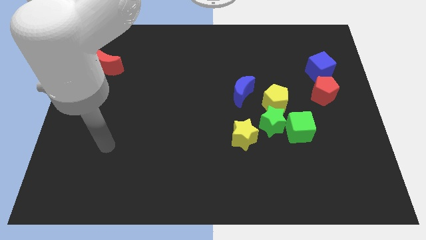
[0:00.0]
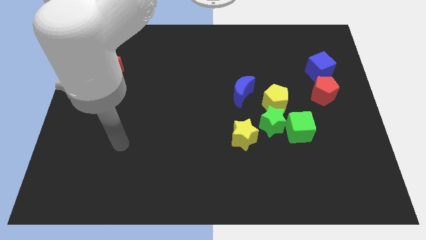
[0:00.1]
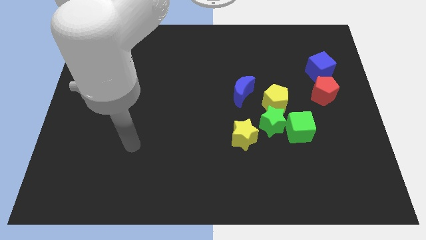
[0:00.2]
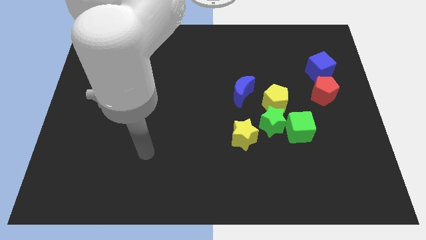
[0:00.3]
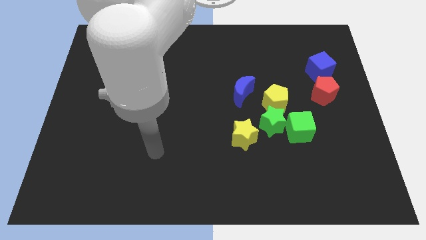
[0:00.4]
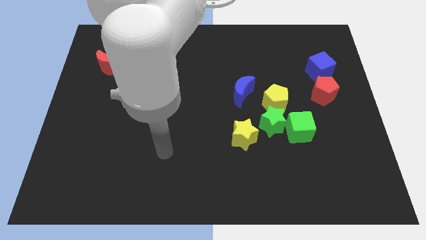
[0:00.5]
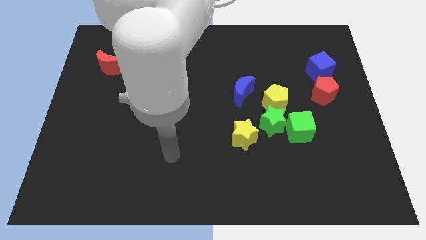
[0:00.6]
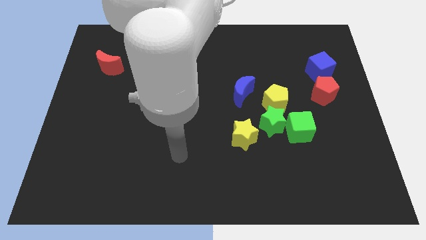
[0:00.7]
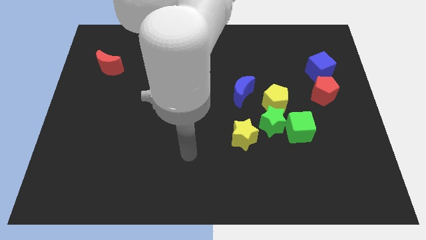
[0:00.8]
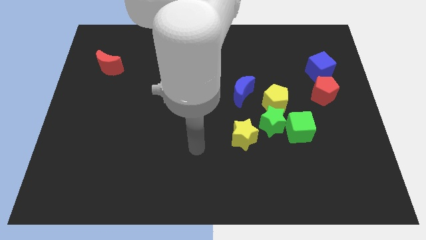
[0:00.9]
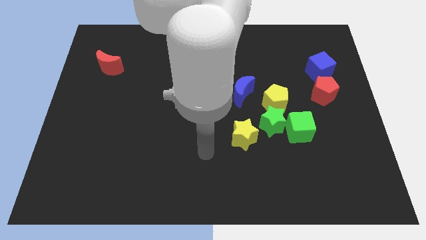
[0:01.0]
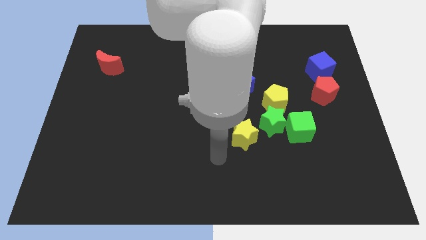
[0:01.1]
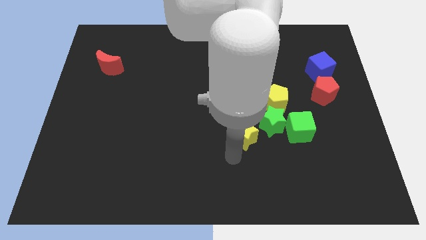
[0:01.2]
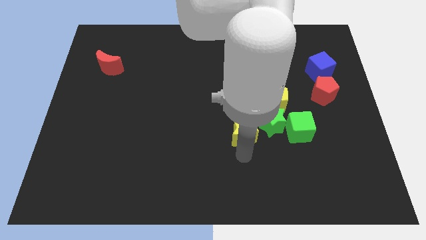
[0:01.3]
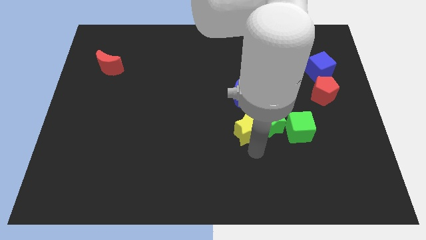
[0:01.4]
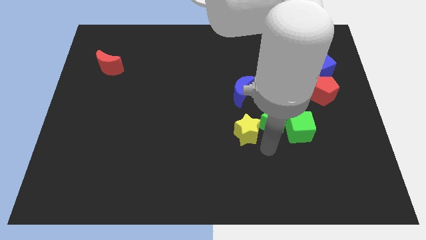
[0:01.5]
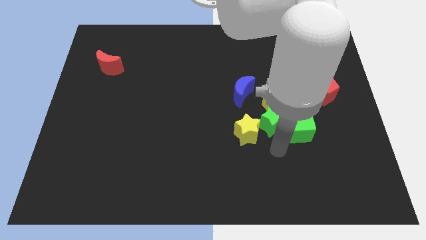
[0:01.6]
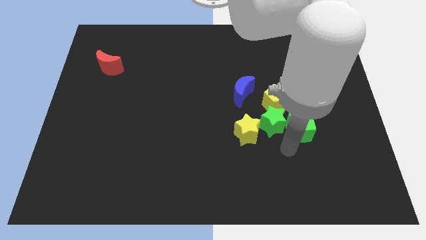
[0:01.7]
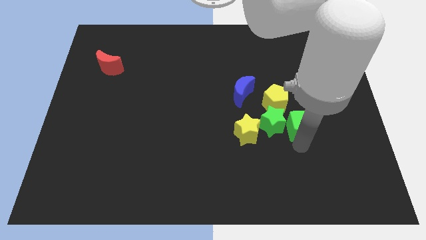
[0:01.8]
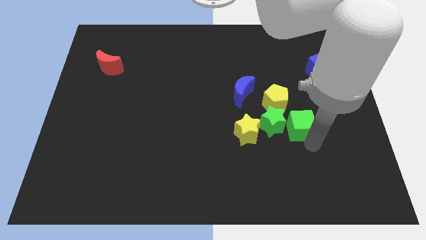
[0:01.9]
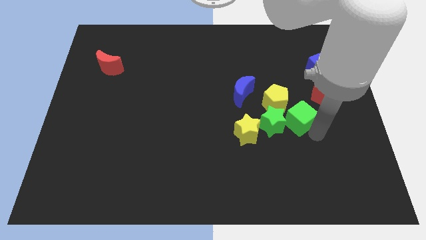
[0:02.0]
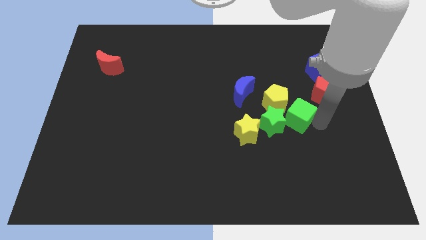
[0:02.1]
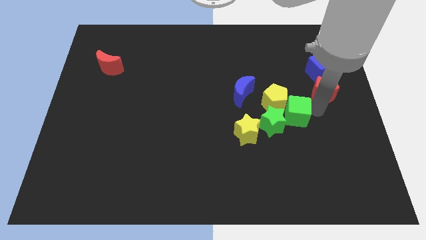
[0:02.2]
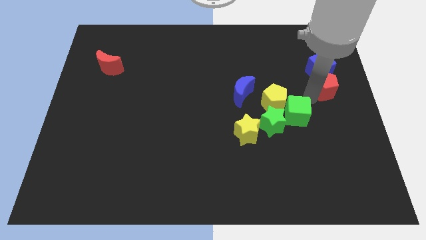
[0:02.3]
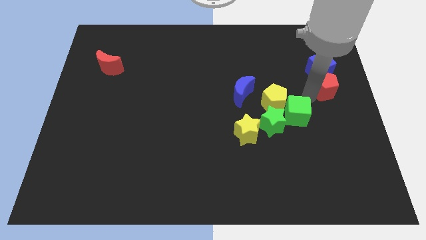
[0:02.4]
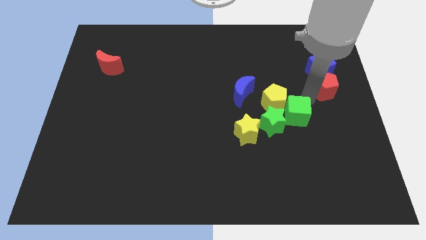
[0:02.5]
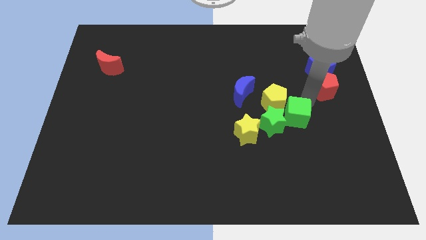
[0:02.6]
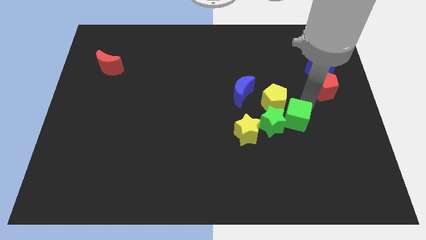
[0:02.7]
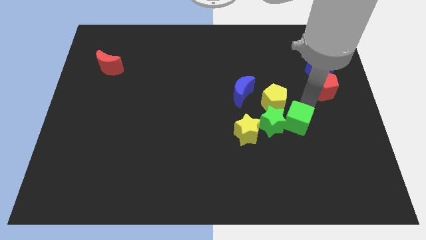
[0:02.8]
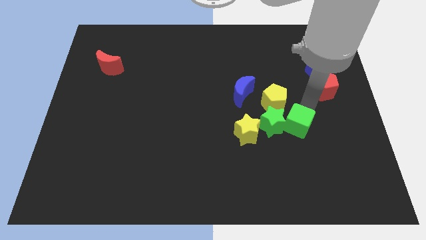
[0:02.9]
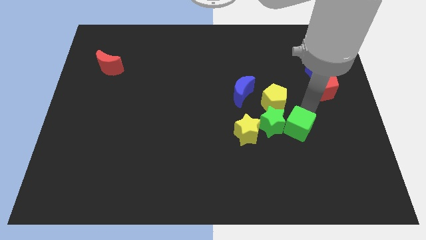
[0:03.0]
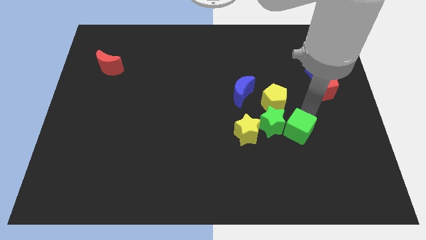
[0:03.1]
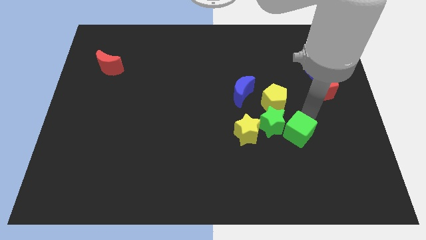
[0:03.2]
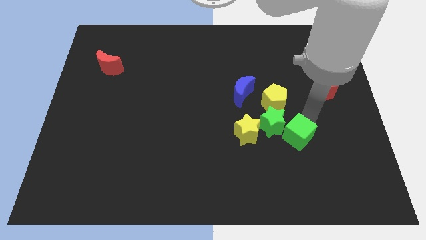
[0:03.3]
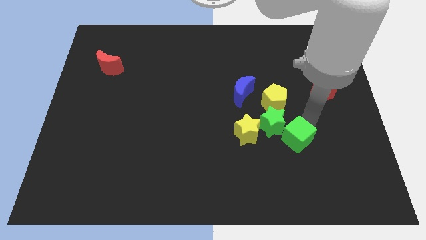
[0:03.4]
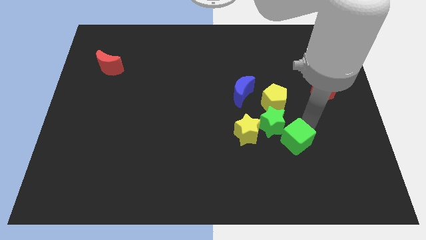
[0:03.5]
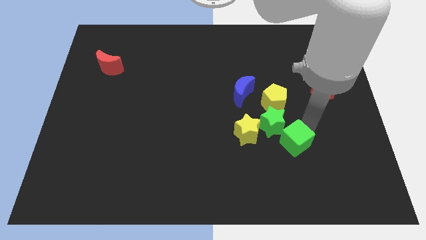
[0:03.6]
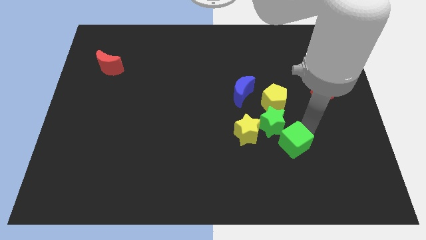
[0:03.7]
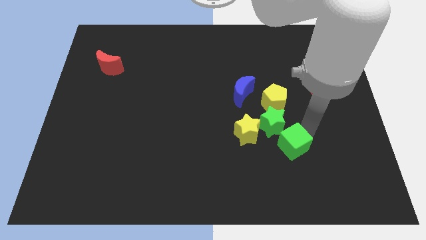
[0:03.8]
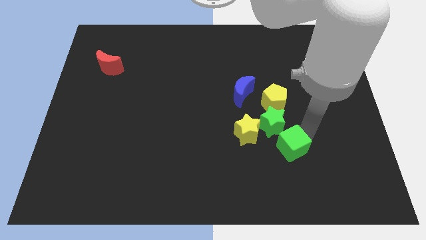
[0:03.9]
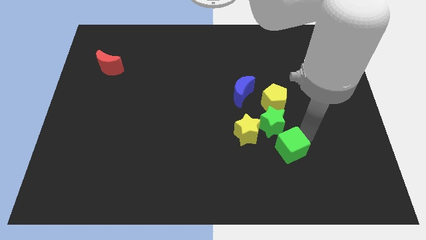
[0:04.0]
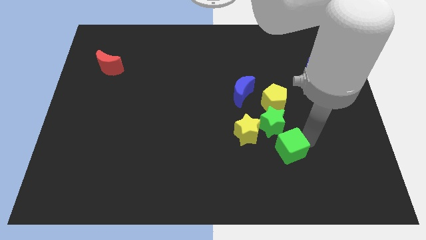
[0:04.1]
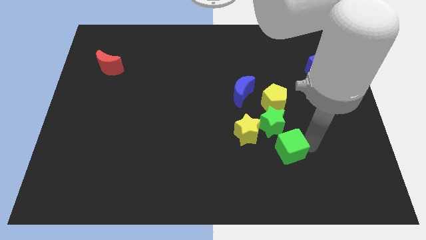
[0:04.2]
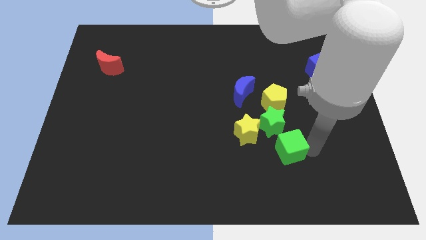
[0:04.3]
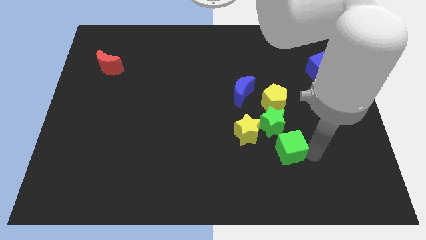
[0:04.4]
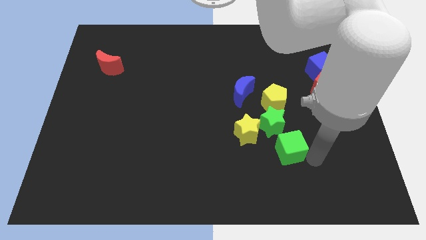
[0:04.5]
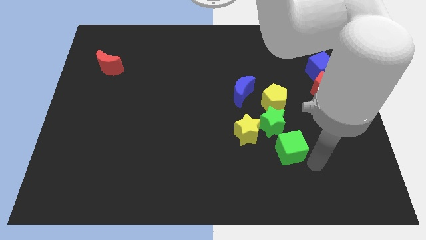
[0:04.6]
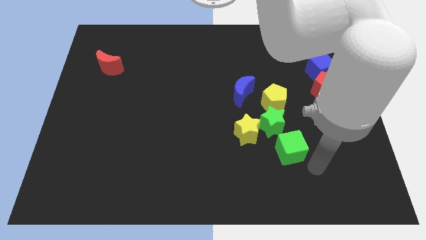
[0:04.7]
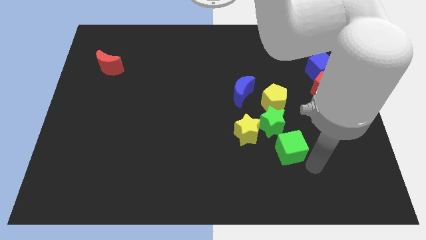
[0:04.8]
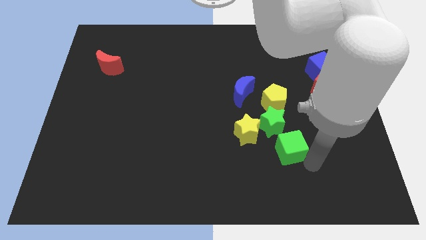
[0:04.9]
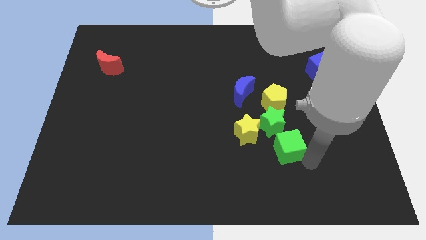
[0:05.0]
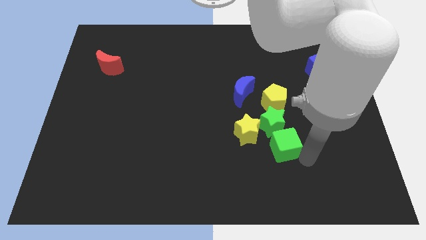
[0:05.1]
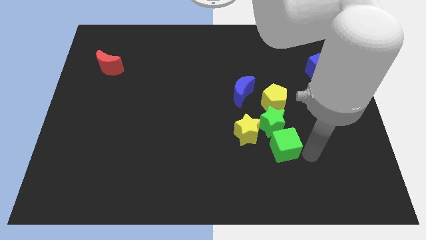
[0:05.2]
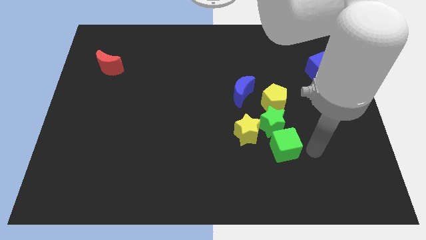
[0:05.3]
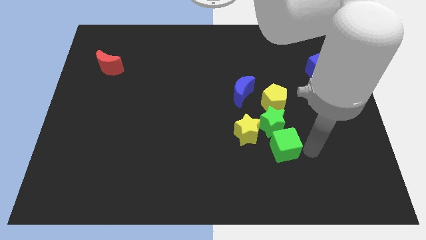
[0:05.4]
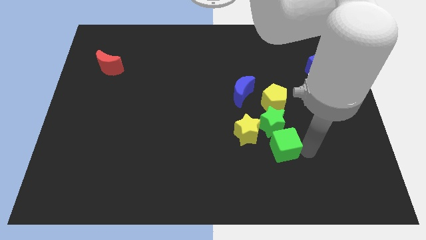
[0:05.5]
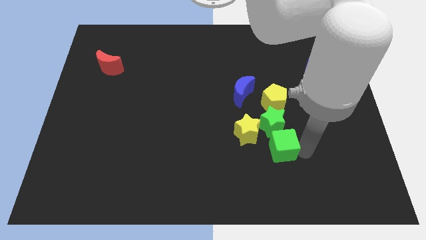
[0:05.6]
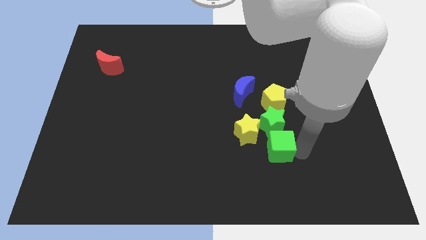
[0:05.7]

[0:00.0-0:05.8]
move the green cube diagonally down and to the left of the green star
